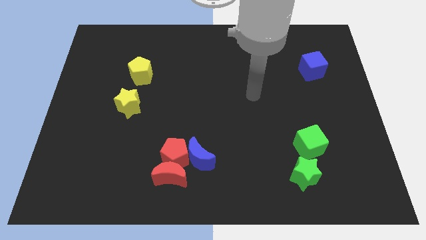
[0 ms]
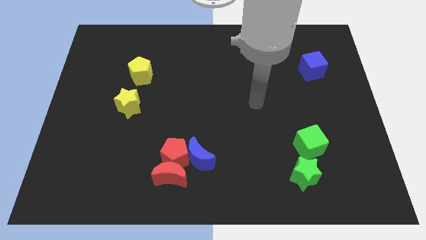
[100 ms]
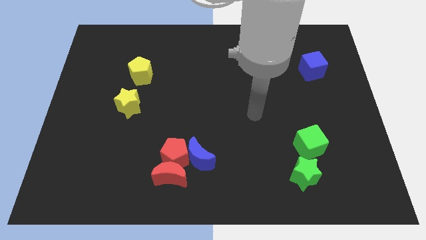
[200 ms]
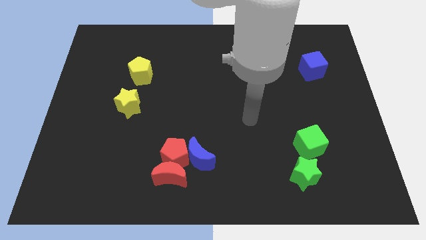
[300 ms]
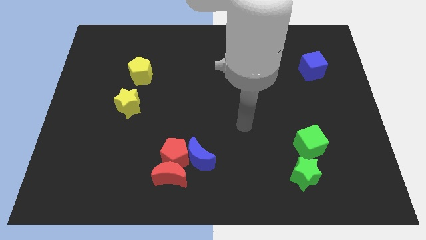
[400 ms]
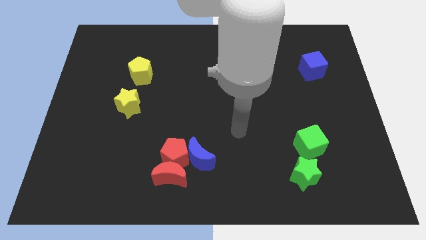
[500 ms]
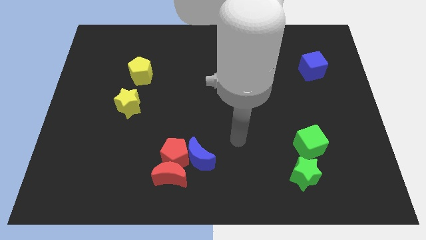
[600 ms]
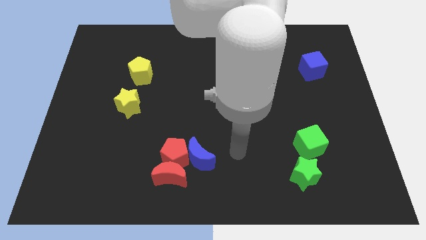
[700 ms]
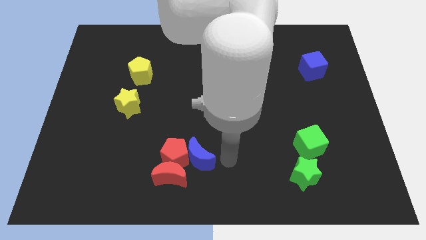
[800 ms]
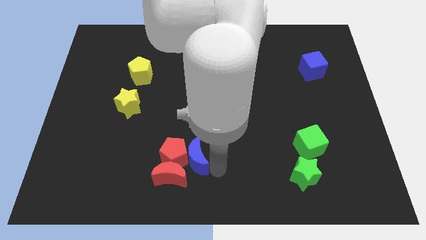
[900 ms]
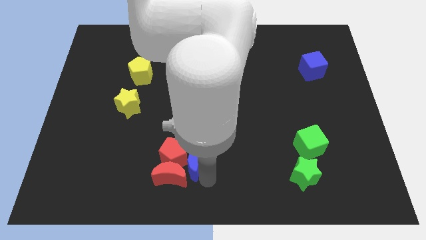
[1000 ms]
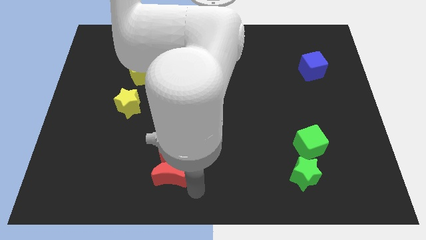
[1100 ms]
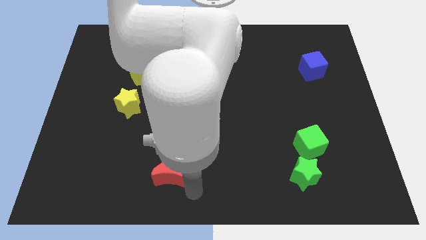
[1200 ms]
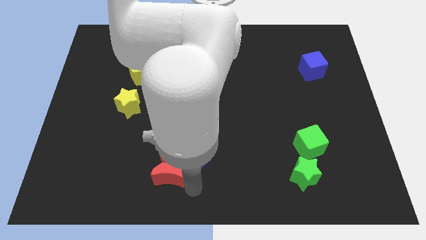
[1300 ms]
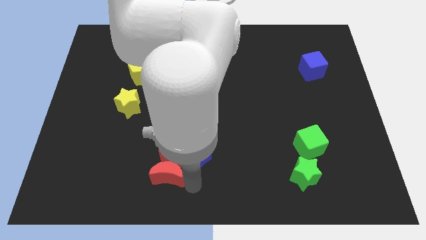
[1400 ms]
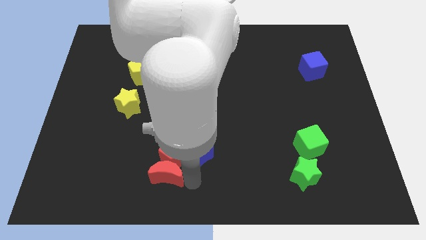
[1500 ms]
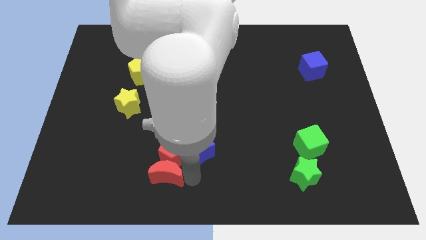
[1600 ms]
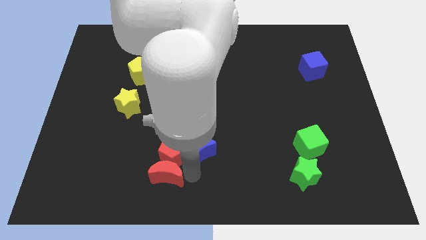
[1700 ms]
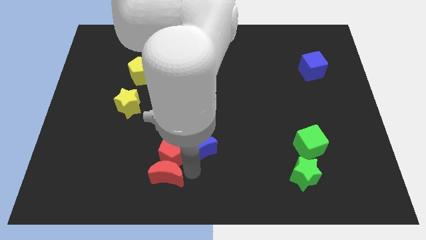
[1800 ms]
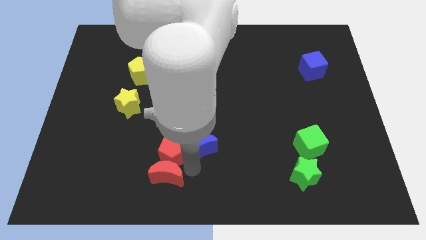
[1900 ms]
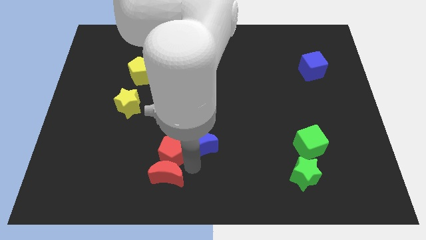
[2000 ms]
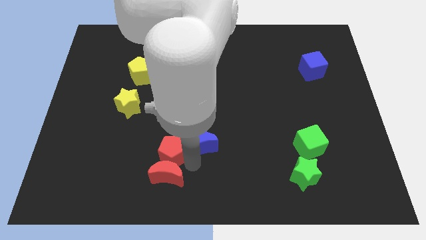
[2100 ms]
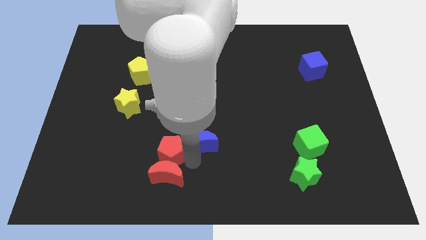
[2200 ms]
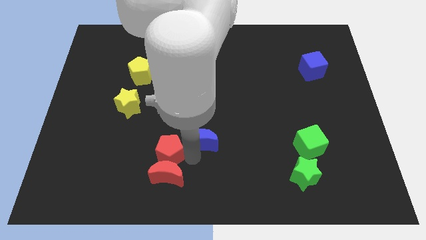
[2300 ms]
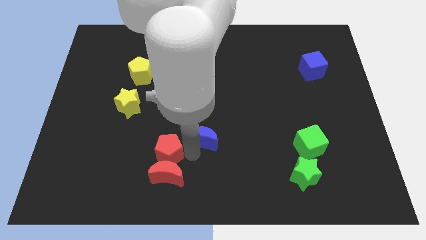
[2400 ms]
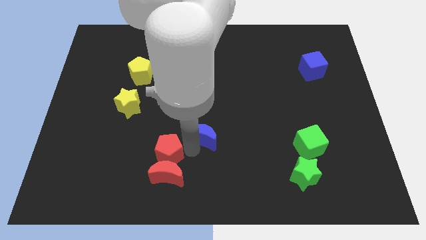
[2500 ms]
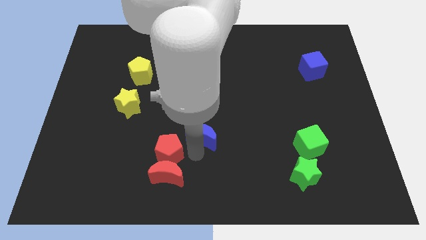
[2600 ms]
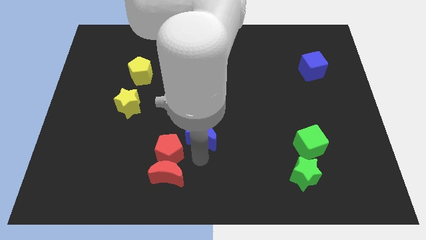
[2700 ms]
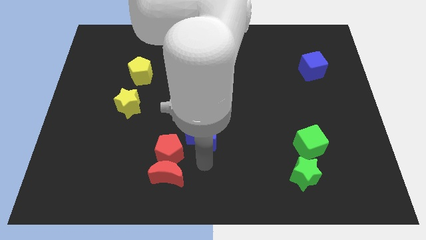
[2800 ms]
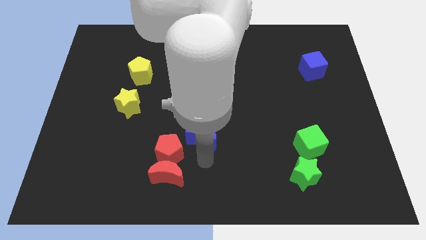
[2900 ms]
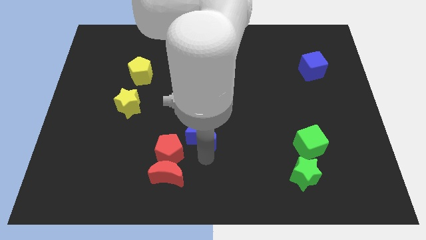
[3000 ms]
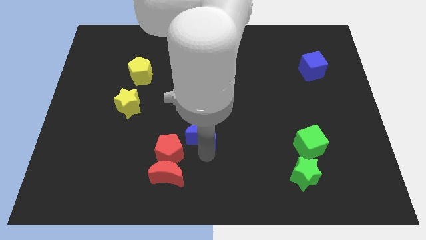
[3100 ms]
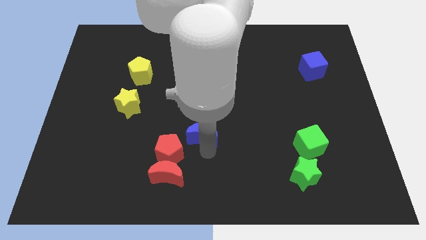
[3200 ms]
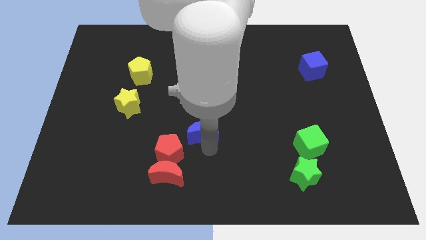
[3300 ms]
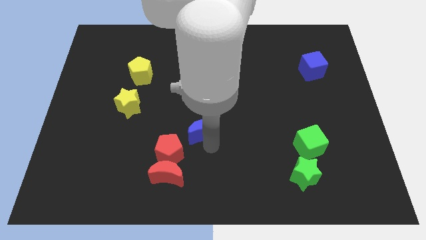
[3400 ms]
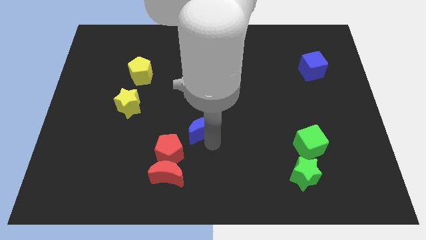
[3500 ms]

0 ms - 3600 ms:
slightly slide the blue moon up

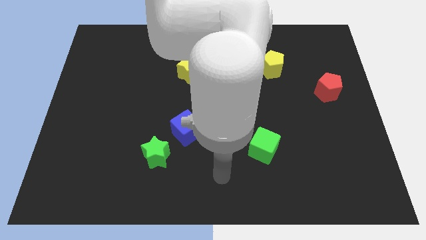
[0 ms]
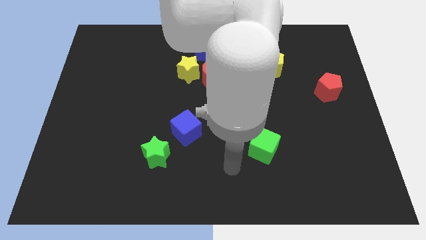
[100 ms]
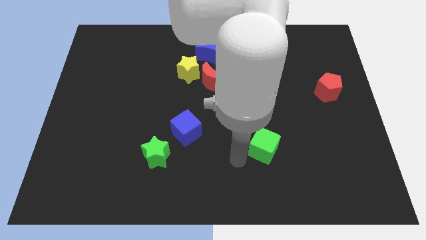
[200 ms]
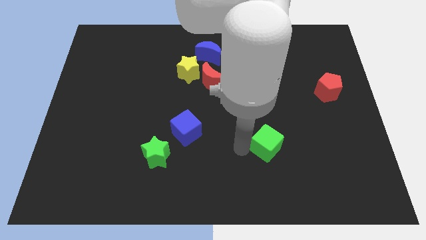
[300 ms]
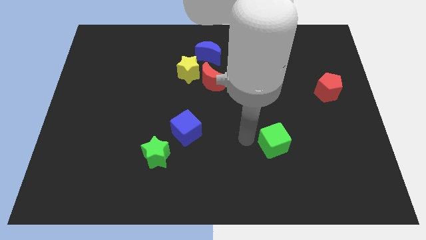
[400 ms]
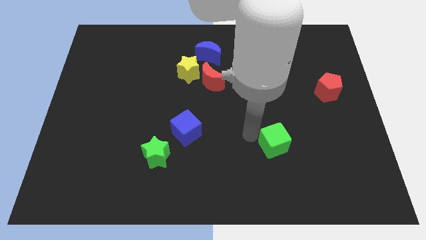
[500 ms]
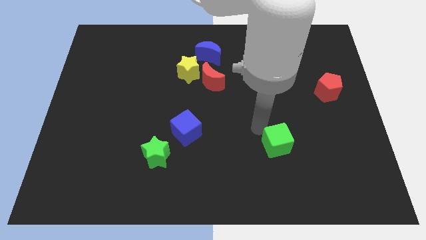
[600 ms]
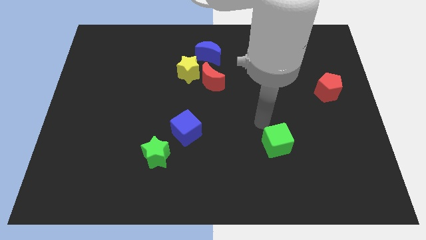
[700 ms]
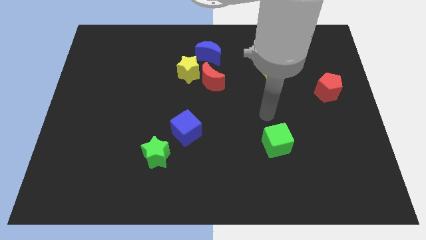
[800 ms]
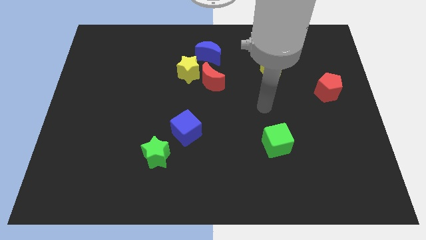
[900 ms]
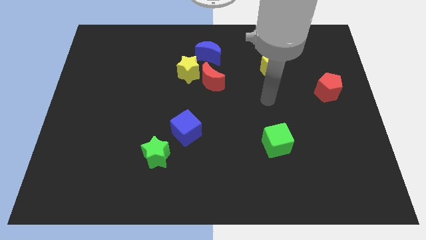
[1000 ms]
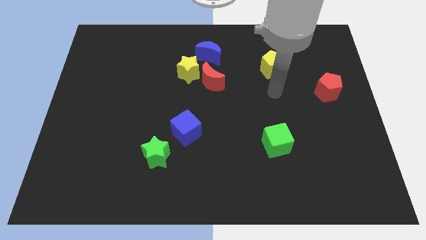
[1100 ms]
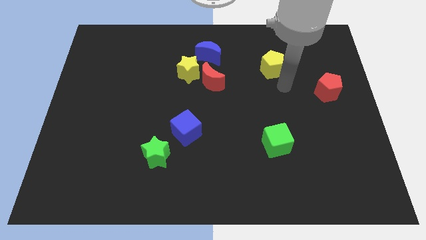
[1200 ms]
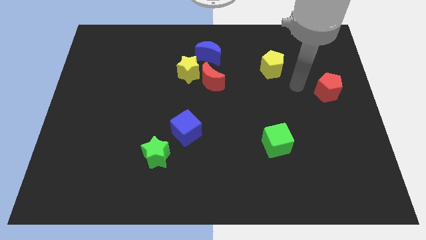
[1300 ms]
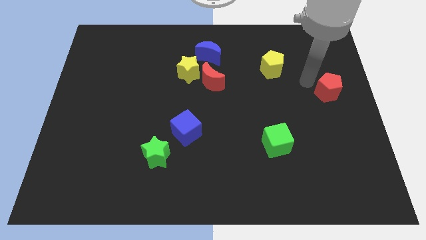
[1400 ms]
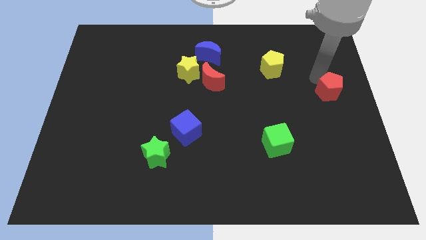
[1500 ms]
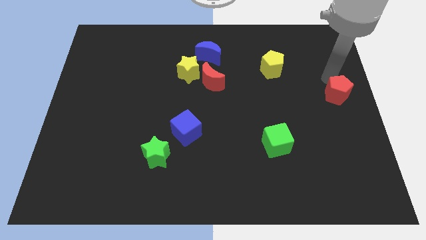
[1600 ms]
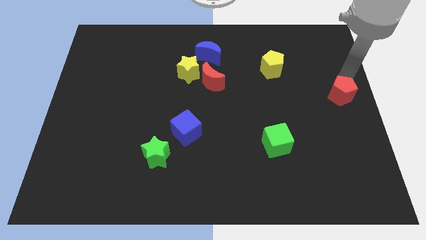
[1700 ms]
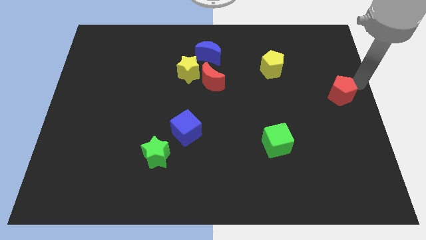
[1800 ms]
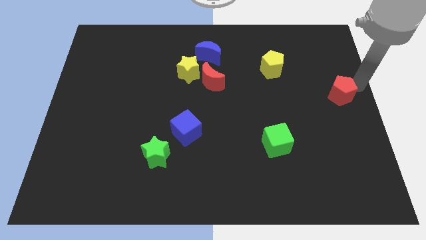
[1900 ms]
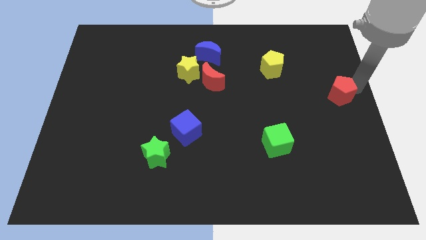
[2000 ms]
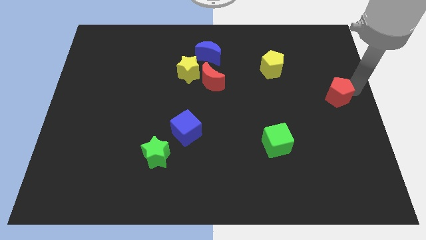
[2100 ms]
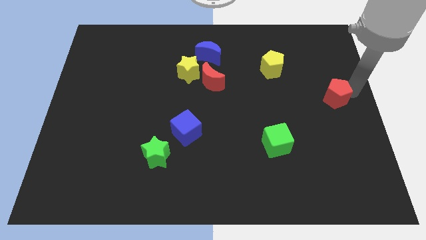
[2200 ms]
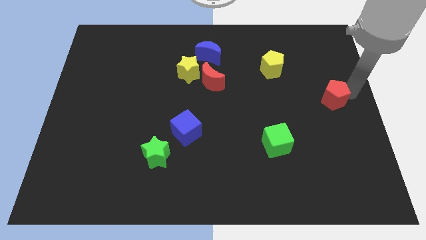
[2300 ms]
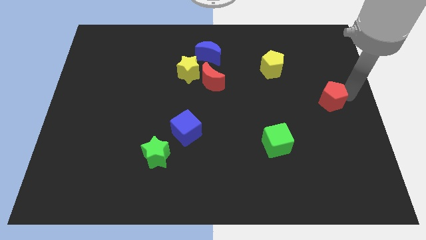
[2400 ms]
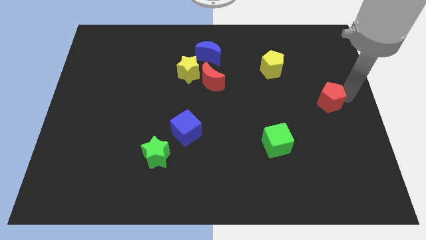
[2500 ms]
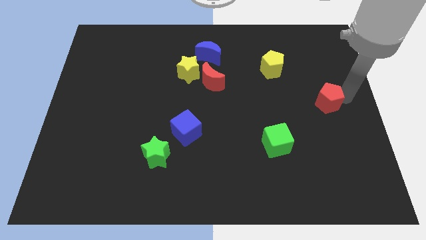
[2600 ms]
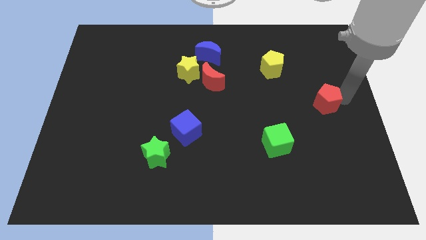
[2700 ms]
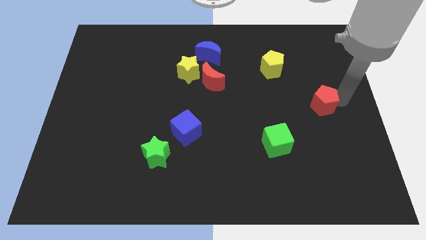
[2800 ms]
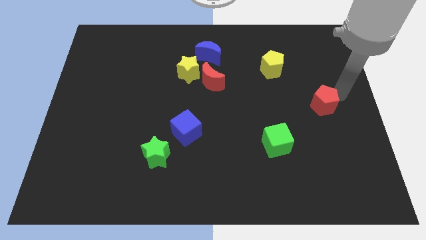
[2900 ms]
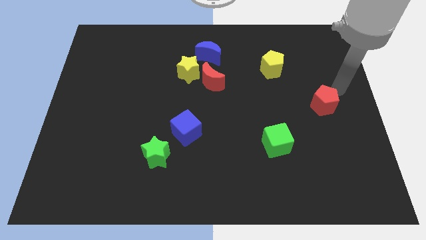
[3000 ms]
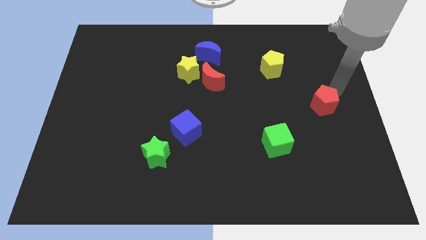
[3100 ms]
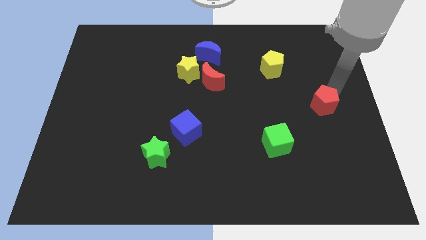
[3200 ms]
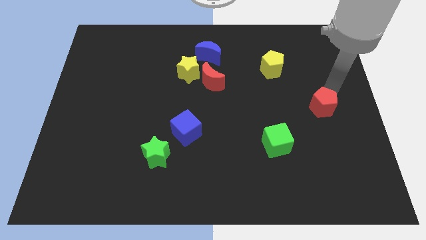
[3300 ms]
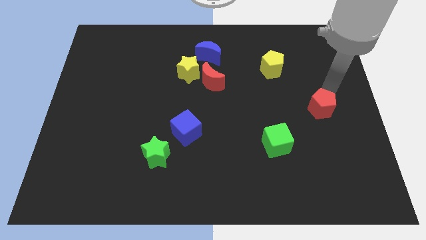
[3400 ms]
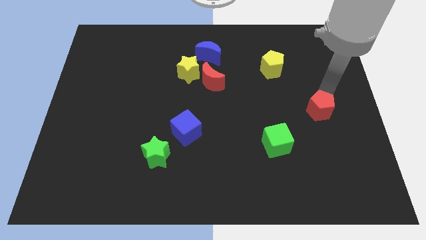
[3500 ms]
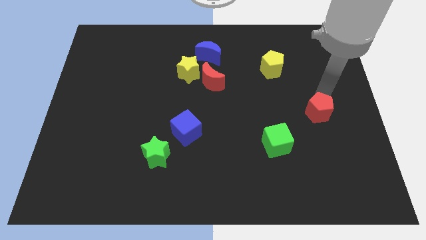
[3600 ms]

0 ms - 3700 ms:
move the red pentagon down and to the left diagonally a little bit

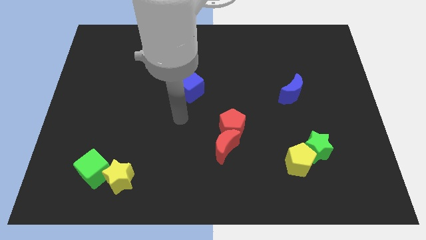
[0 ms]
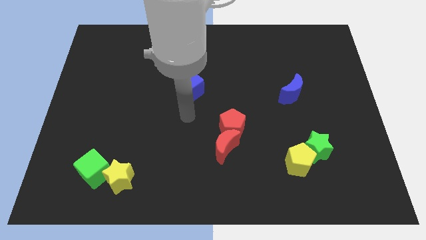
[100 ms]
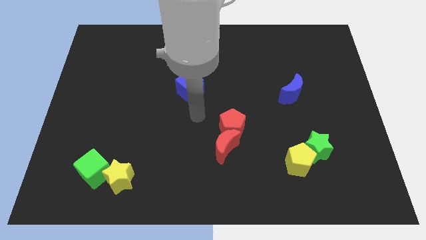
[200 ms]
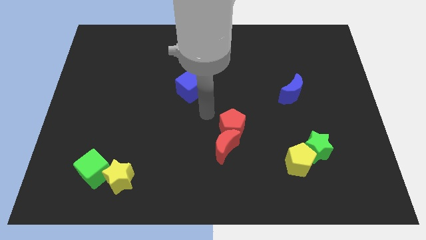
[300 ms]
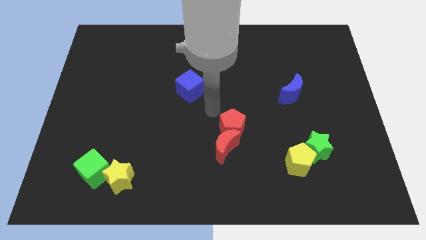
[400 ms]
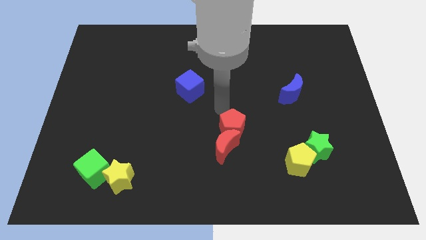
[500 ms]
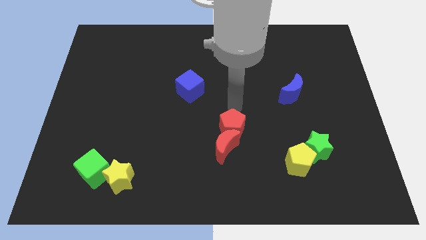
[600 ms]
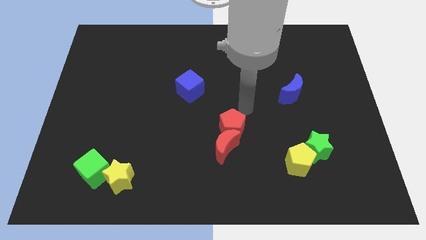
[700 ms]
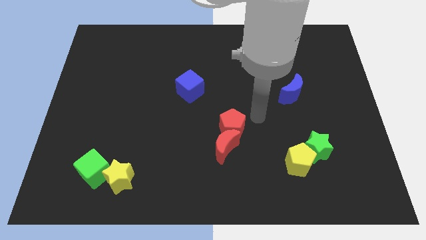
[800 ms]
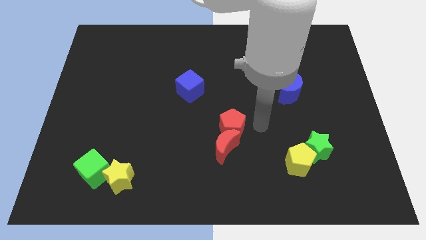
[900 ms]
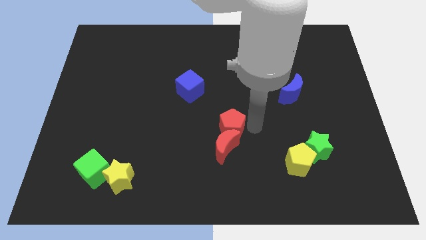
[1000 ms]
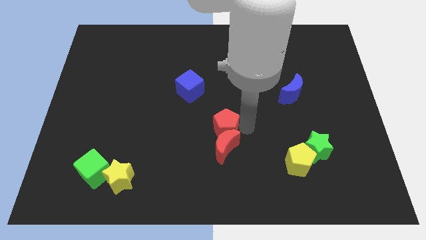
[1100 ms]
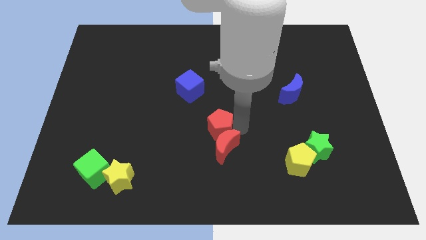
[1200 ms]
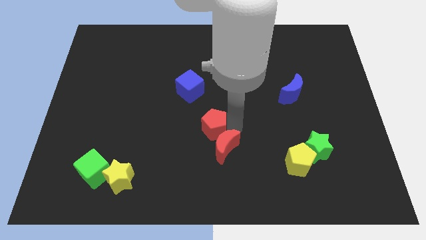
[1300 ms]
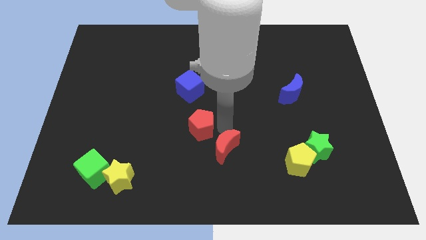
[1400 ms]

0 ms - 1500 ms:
slightly slide the red pentagon left
